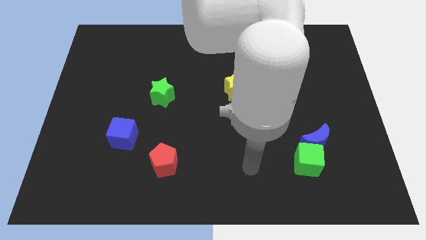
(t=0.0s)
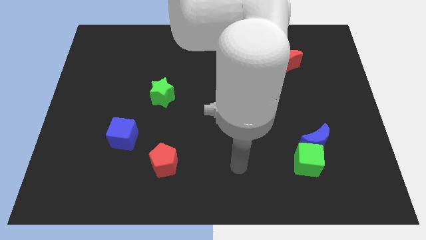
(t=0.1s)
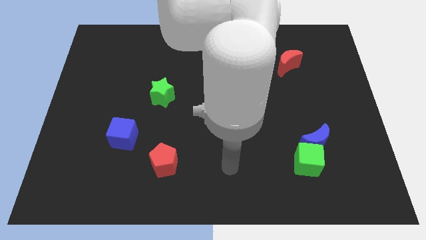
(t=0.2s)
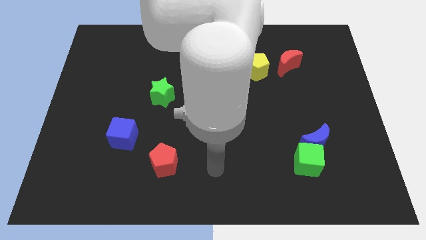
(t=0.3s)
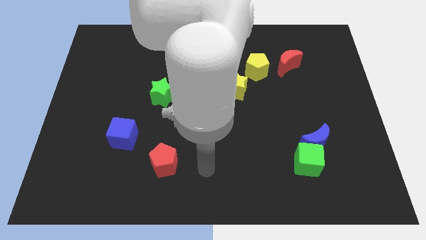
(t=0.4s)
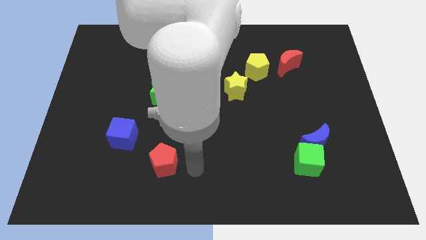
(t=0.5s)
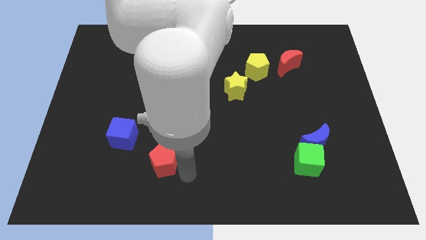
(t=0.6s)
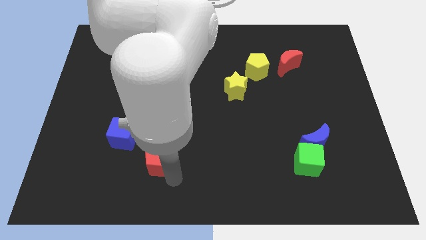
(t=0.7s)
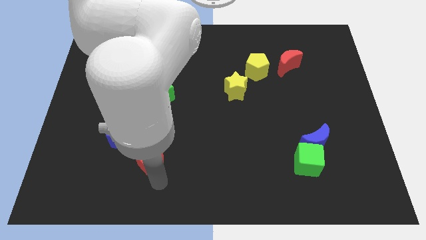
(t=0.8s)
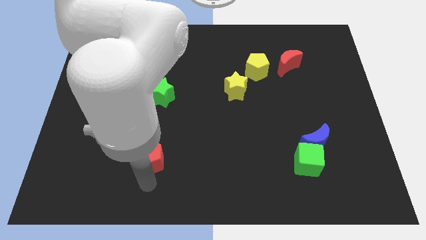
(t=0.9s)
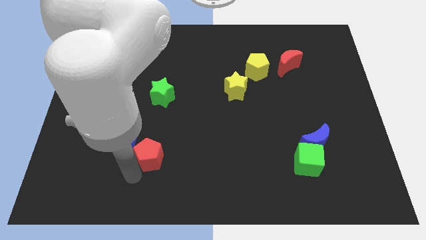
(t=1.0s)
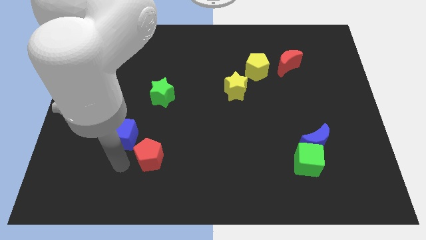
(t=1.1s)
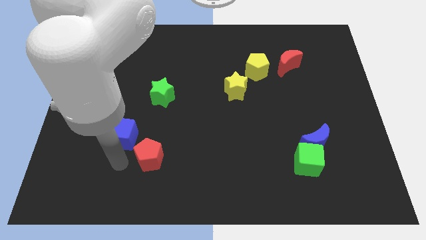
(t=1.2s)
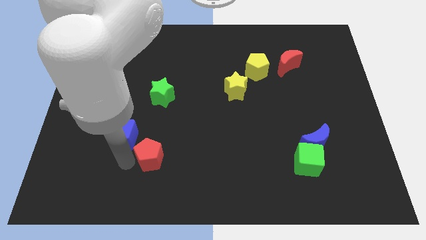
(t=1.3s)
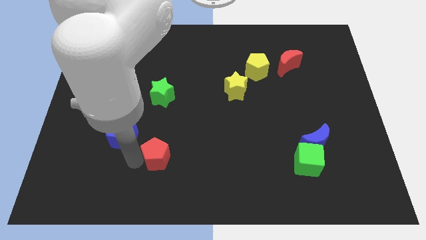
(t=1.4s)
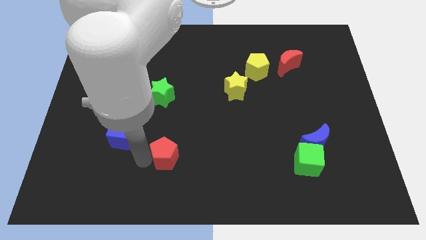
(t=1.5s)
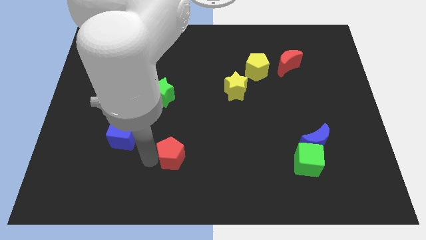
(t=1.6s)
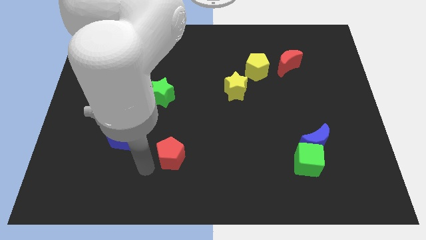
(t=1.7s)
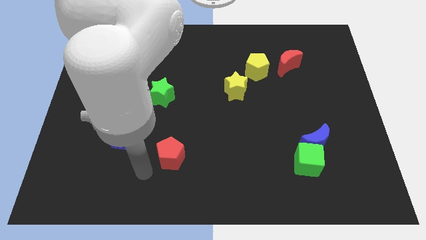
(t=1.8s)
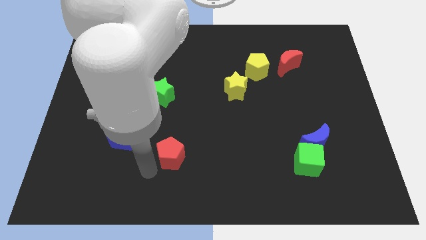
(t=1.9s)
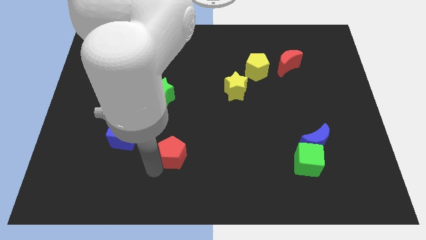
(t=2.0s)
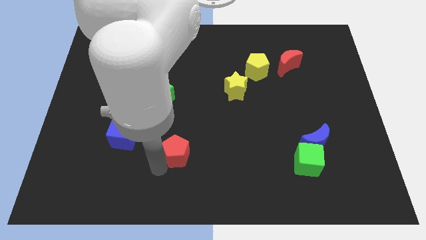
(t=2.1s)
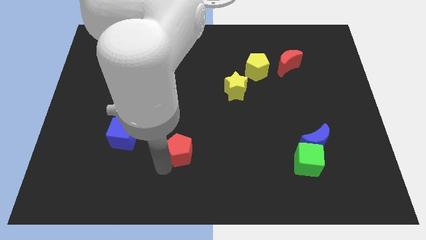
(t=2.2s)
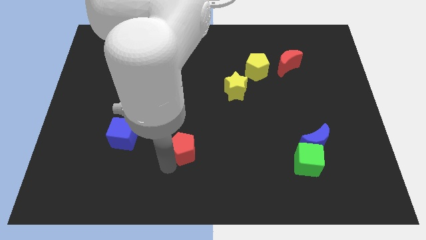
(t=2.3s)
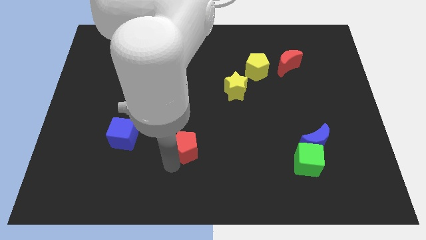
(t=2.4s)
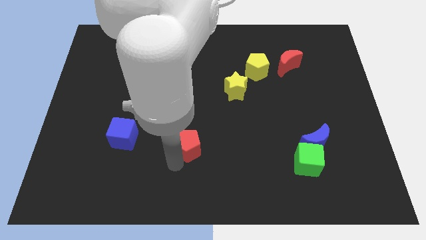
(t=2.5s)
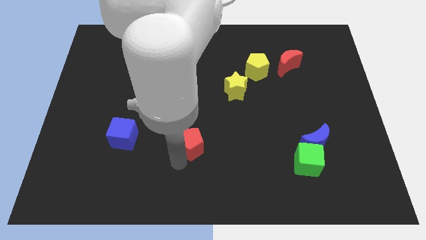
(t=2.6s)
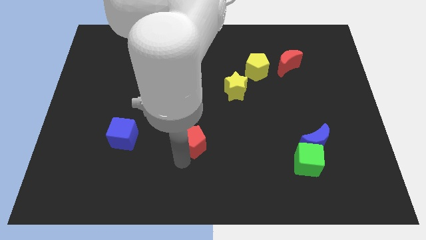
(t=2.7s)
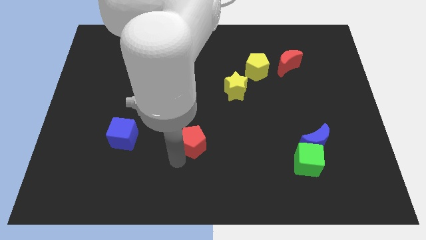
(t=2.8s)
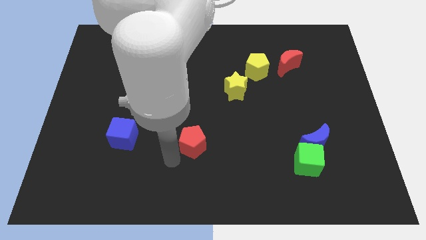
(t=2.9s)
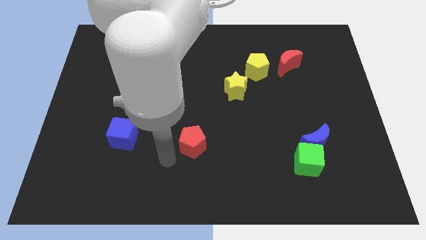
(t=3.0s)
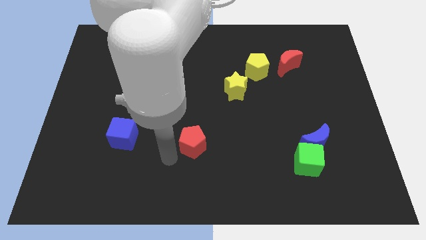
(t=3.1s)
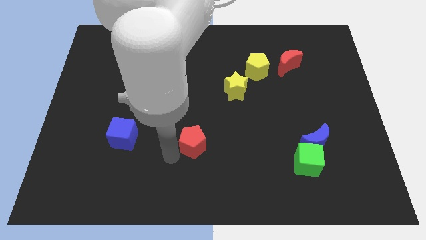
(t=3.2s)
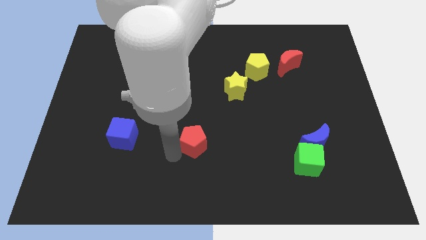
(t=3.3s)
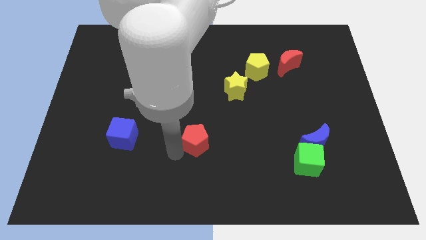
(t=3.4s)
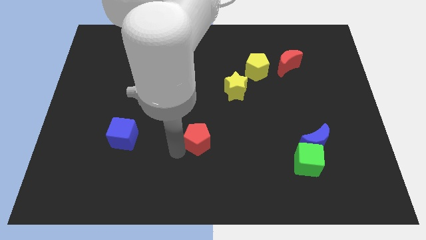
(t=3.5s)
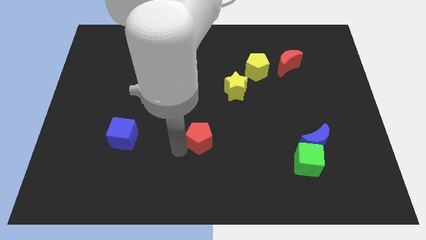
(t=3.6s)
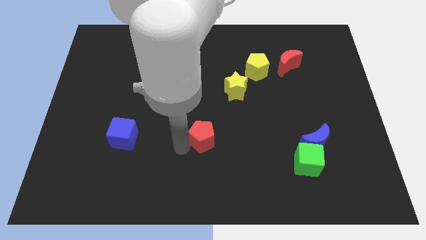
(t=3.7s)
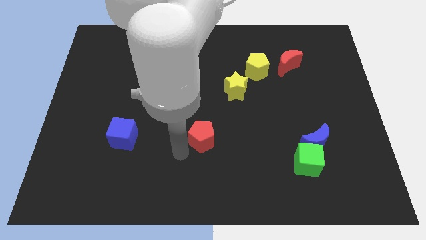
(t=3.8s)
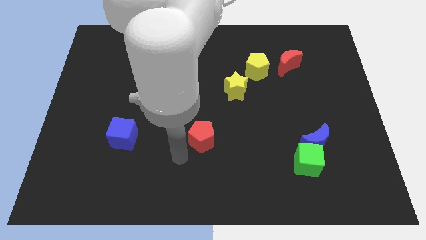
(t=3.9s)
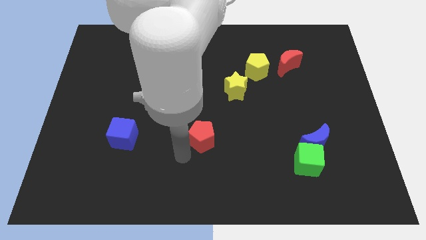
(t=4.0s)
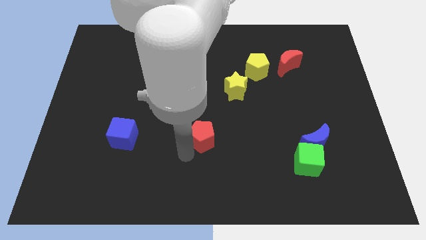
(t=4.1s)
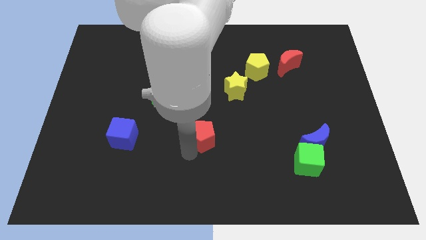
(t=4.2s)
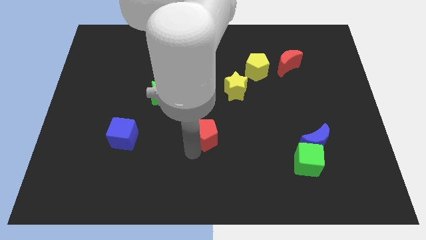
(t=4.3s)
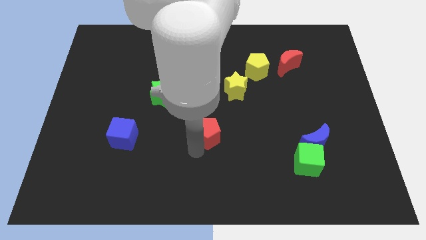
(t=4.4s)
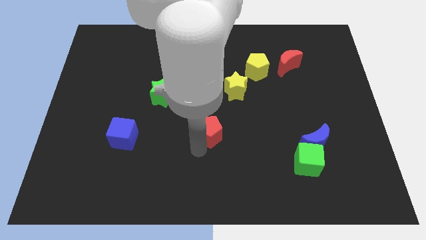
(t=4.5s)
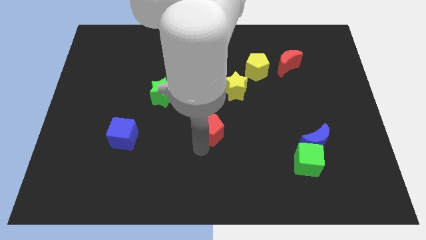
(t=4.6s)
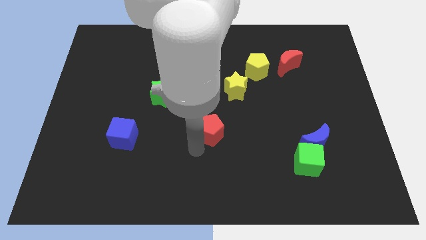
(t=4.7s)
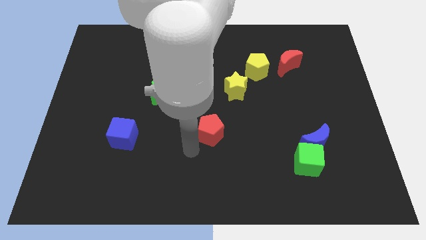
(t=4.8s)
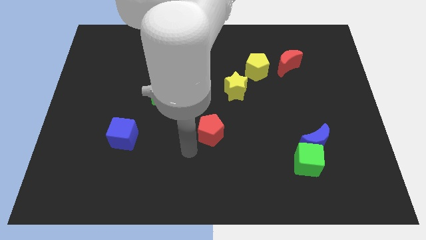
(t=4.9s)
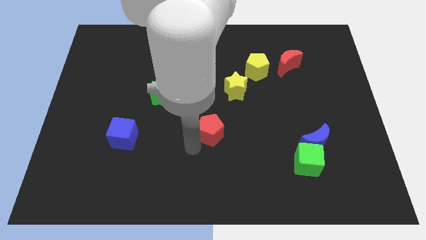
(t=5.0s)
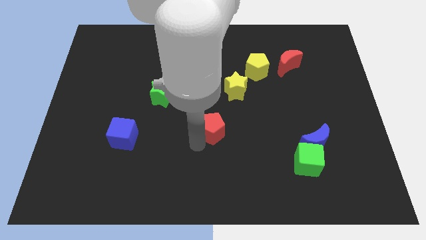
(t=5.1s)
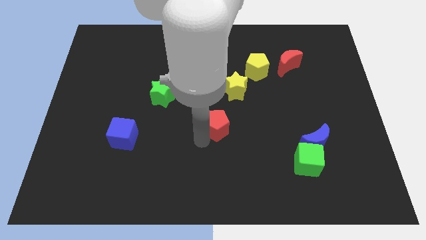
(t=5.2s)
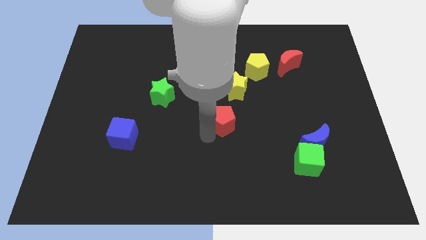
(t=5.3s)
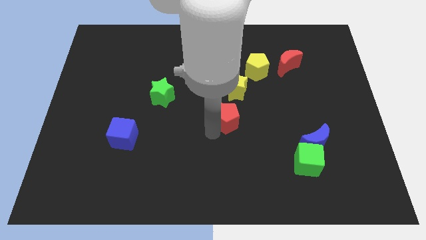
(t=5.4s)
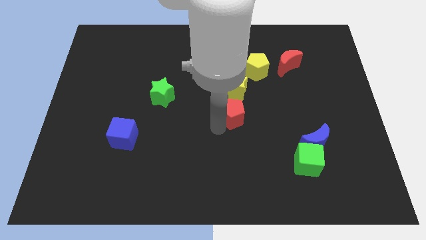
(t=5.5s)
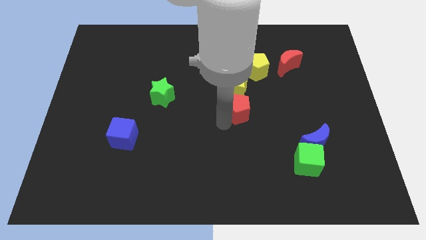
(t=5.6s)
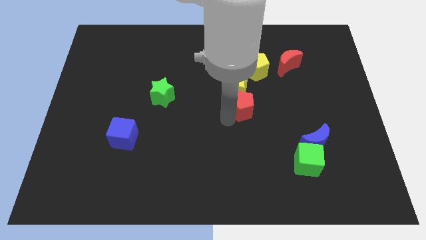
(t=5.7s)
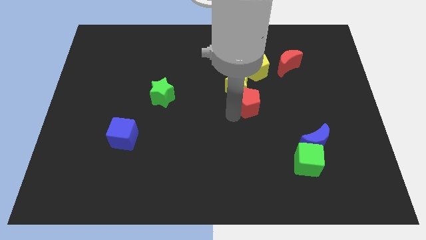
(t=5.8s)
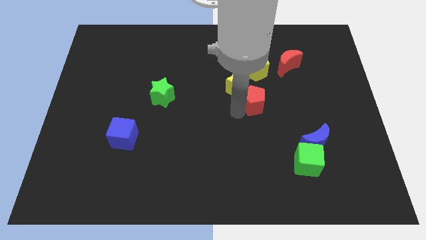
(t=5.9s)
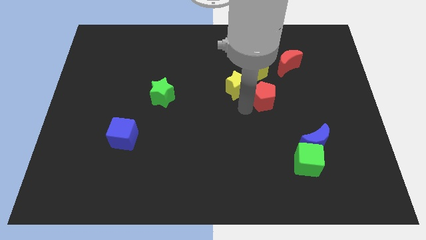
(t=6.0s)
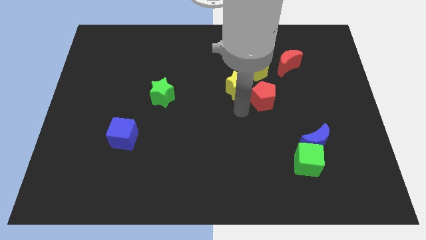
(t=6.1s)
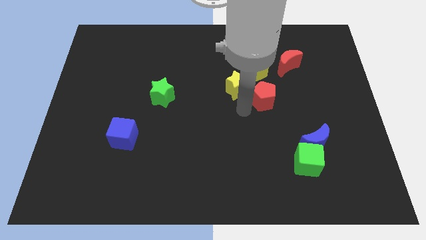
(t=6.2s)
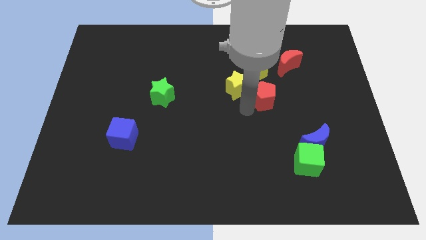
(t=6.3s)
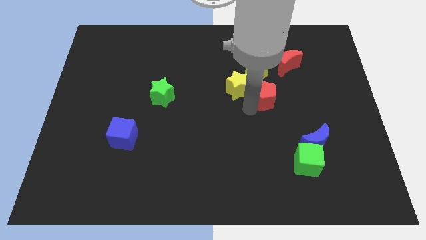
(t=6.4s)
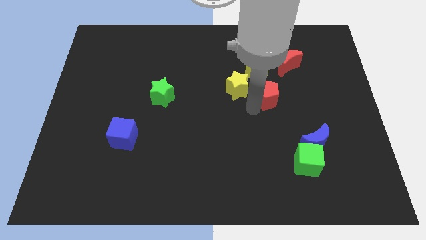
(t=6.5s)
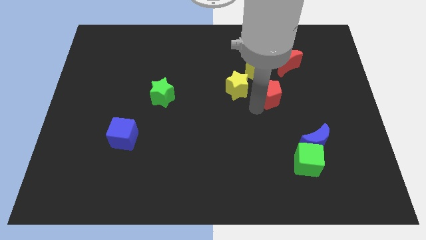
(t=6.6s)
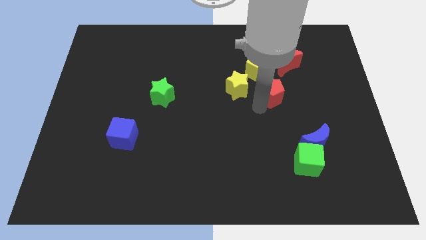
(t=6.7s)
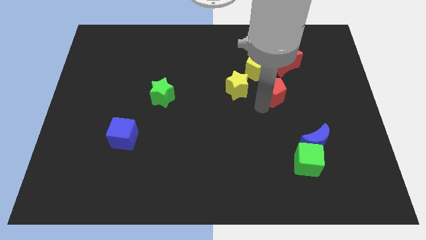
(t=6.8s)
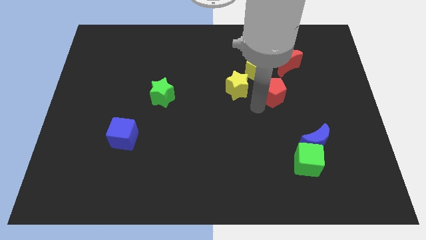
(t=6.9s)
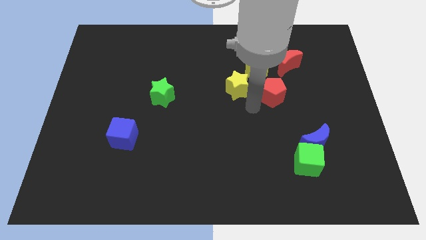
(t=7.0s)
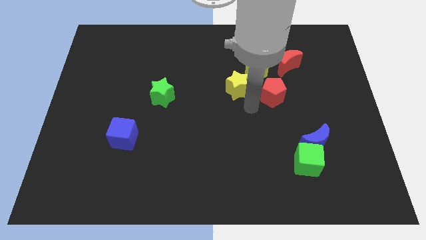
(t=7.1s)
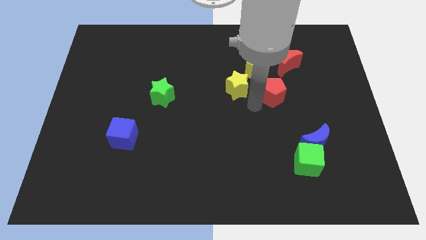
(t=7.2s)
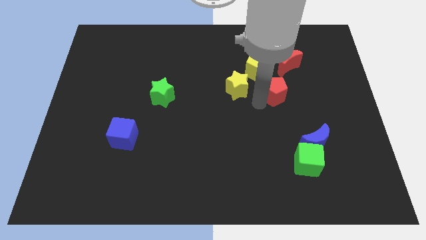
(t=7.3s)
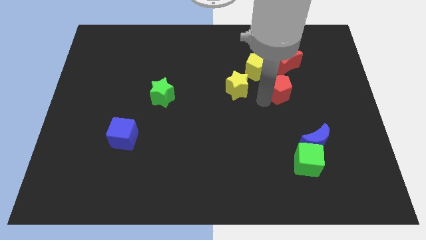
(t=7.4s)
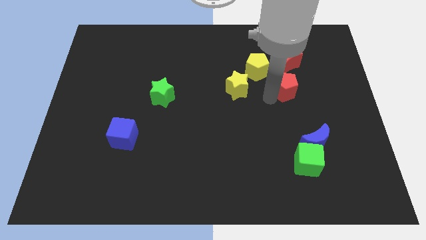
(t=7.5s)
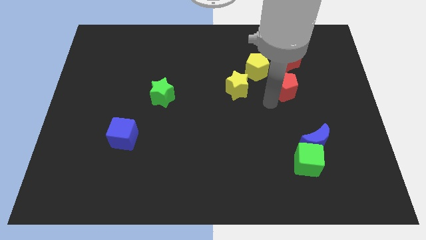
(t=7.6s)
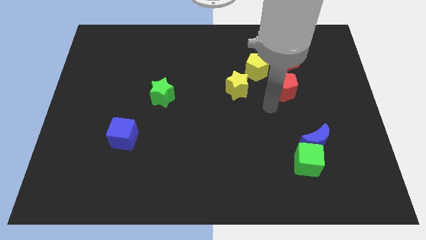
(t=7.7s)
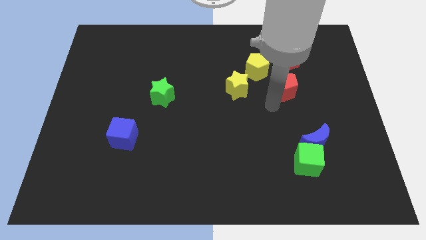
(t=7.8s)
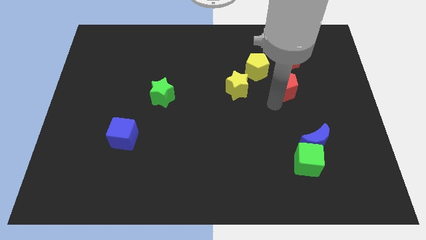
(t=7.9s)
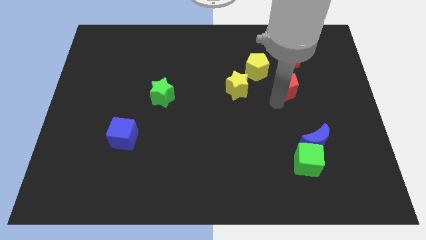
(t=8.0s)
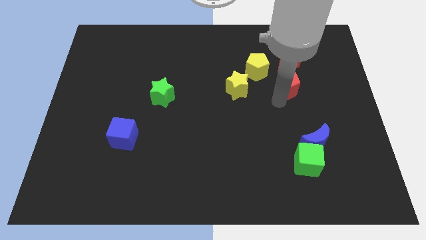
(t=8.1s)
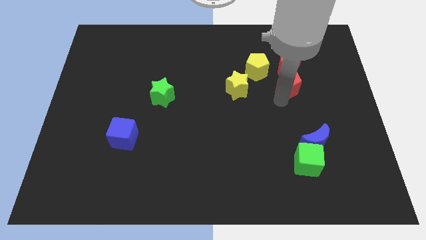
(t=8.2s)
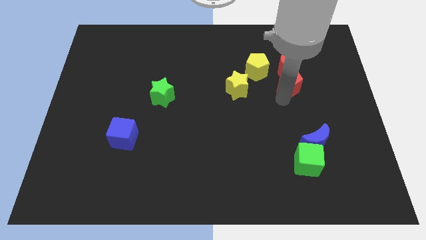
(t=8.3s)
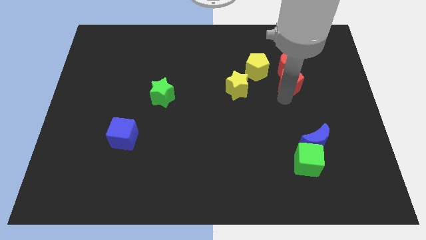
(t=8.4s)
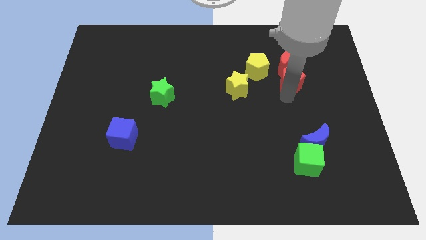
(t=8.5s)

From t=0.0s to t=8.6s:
move the red pentagon to the right side of the yellow pentagon
